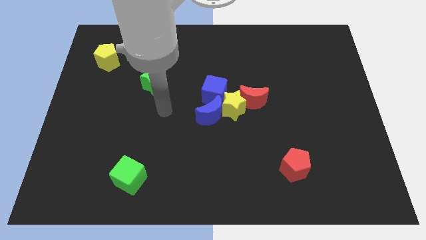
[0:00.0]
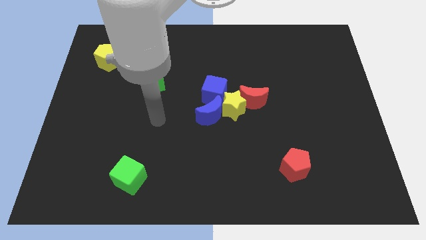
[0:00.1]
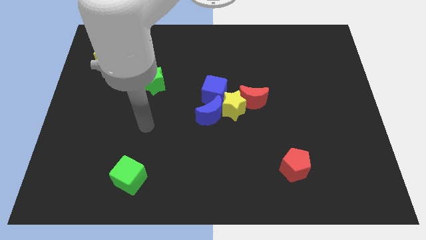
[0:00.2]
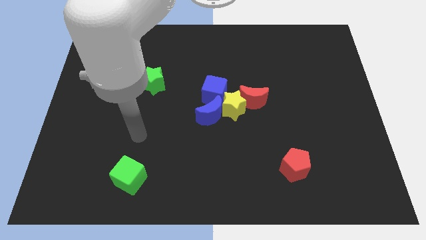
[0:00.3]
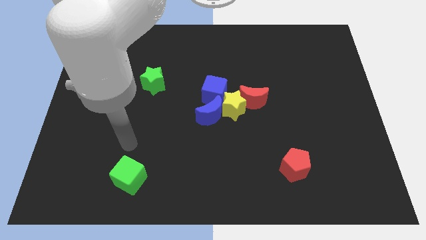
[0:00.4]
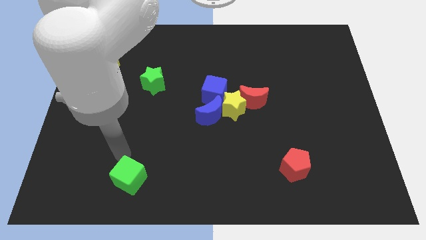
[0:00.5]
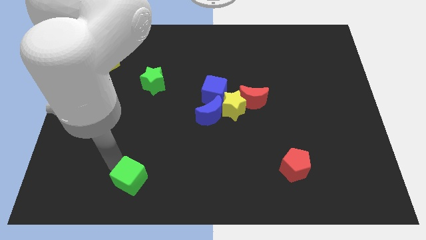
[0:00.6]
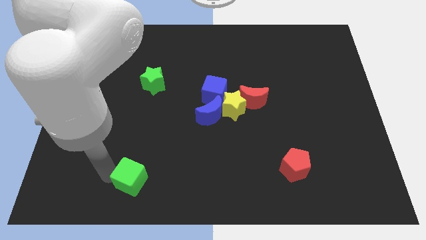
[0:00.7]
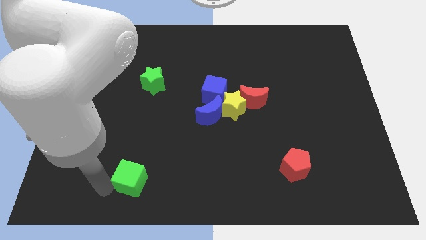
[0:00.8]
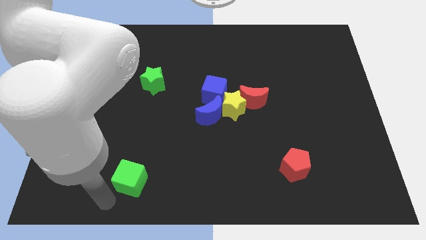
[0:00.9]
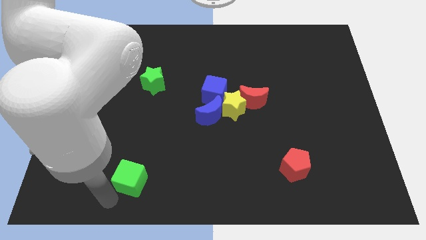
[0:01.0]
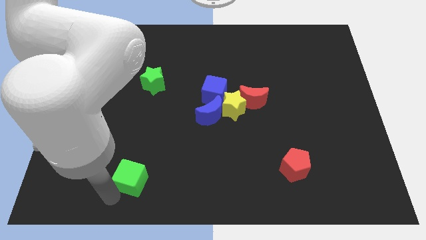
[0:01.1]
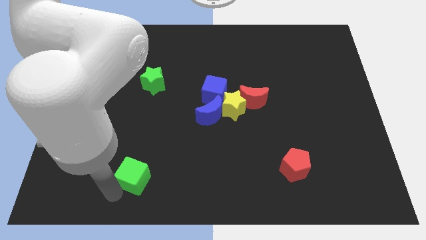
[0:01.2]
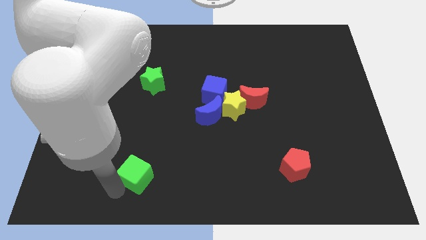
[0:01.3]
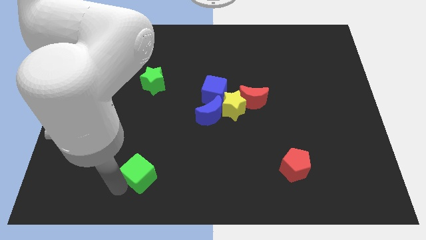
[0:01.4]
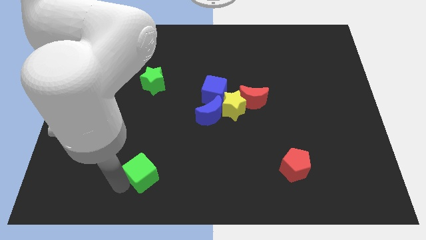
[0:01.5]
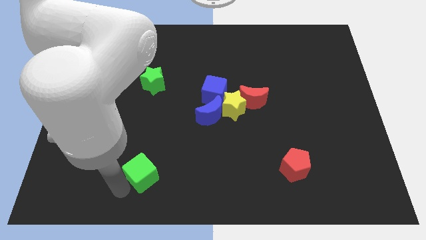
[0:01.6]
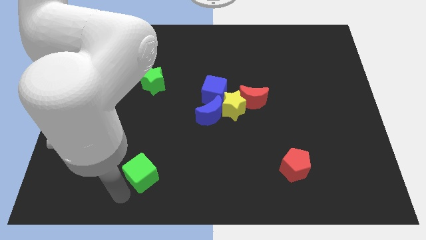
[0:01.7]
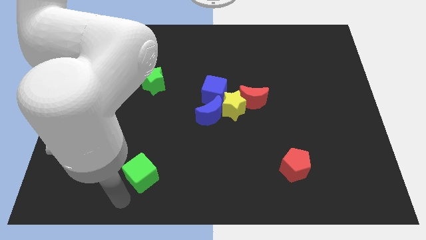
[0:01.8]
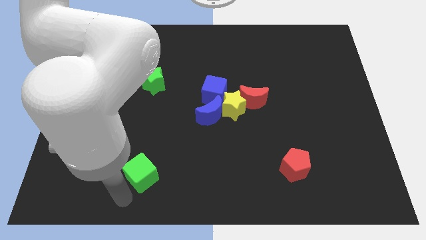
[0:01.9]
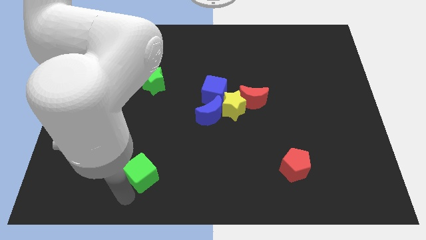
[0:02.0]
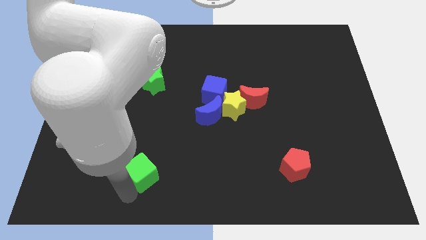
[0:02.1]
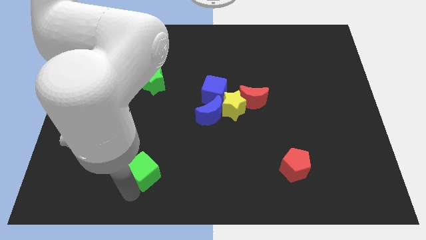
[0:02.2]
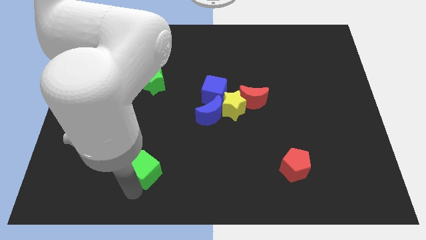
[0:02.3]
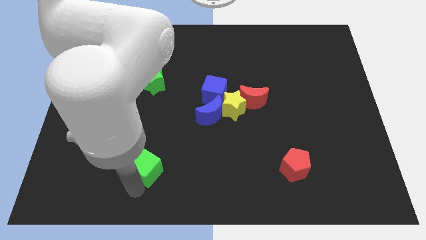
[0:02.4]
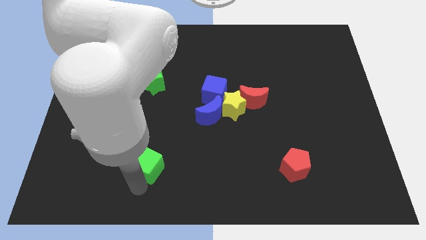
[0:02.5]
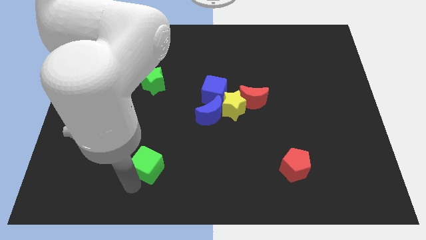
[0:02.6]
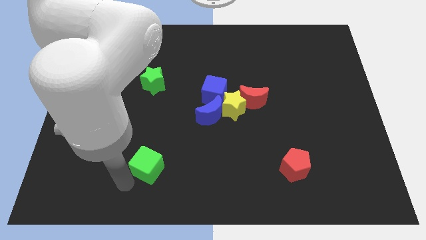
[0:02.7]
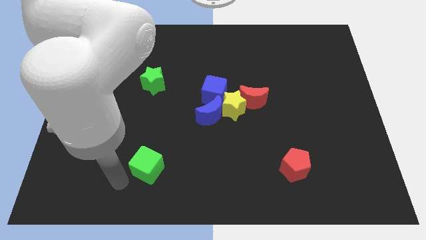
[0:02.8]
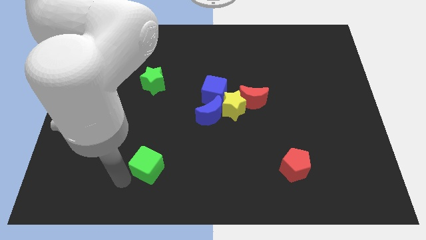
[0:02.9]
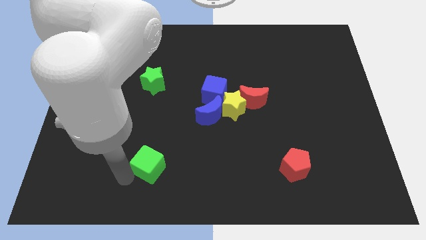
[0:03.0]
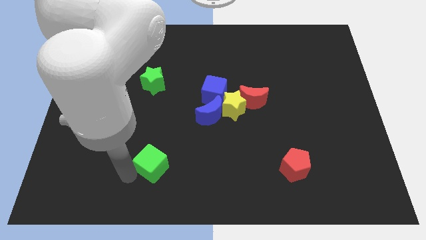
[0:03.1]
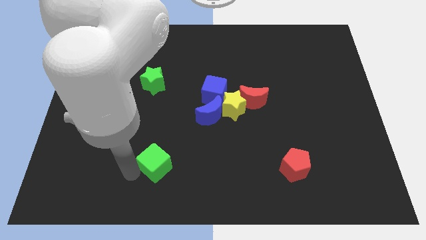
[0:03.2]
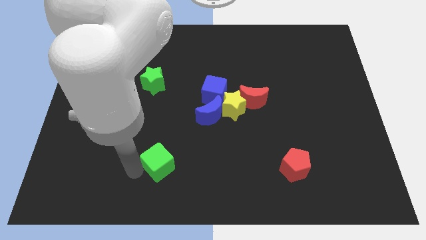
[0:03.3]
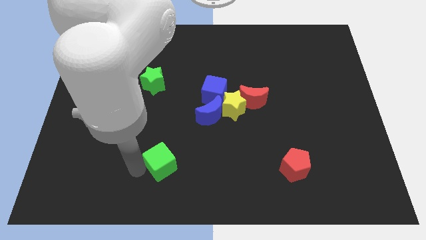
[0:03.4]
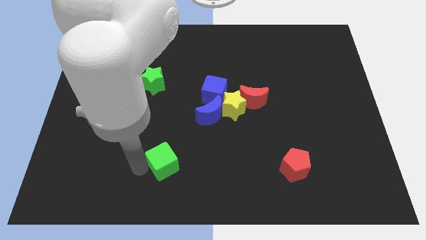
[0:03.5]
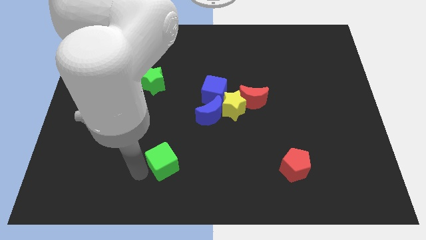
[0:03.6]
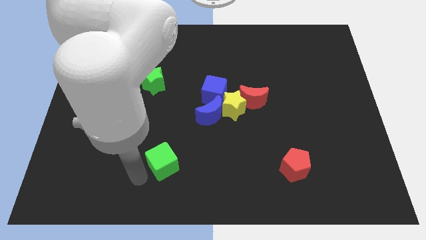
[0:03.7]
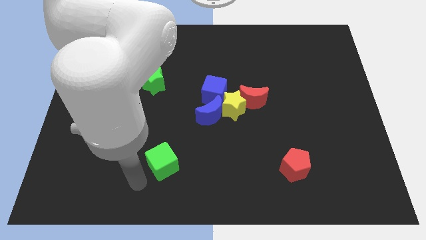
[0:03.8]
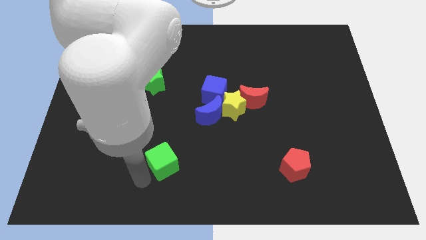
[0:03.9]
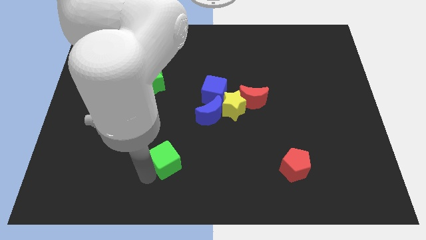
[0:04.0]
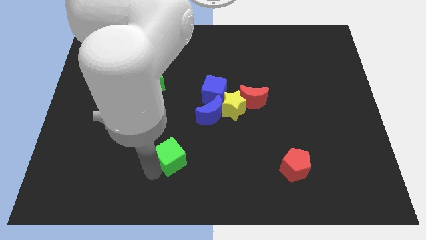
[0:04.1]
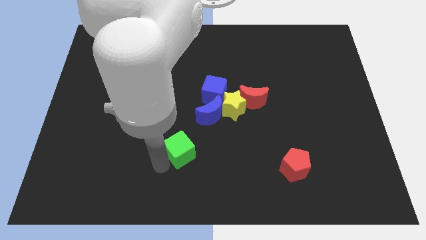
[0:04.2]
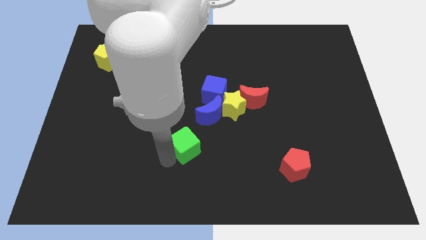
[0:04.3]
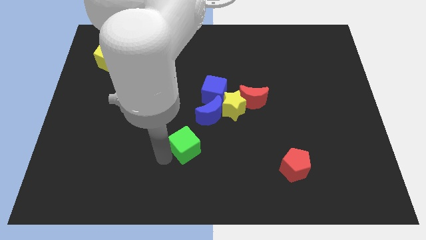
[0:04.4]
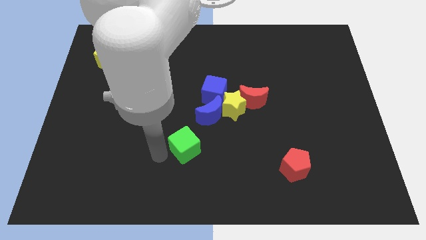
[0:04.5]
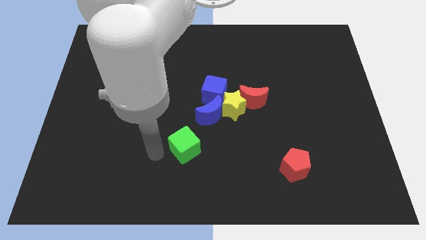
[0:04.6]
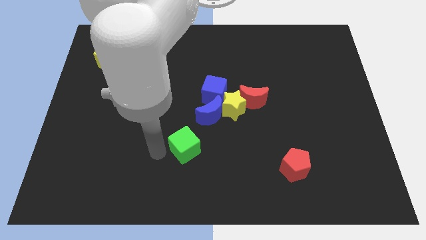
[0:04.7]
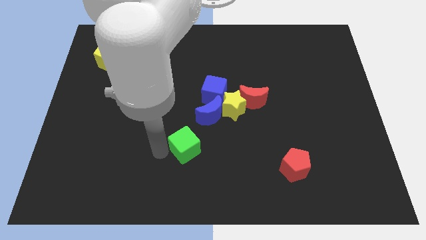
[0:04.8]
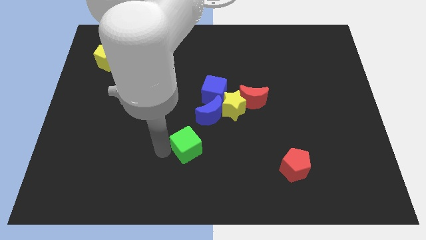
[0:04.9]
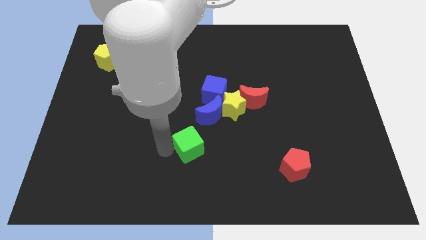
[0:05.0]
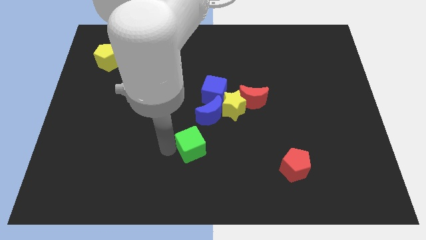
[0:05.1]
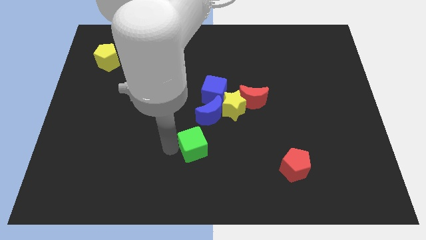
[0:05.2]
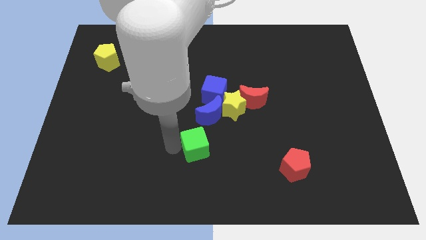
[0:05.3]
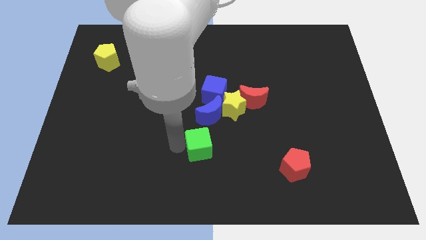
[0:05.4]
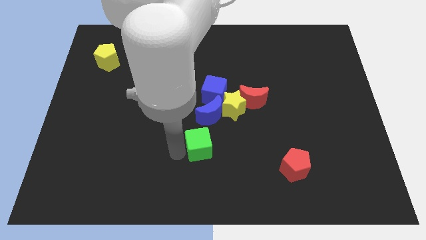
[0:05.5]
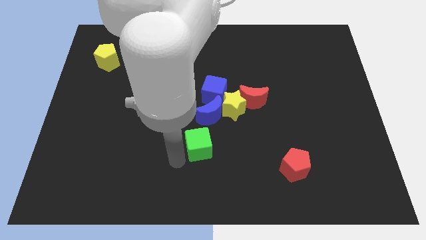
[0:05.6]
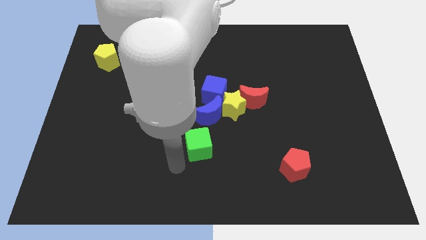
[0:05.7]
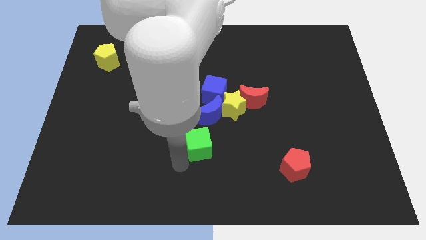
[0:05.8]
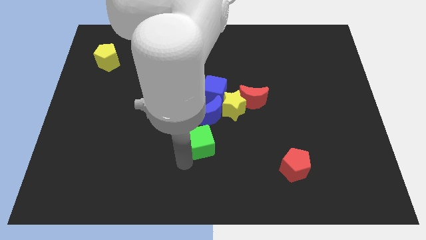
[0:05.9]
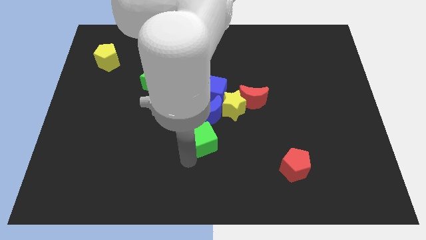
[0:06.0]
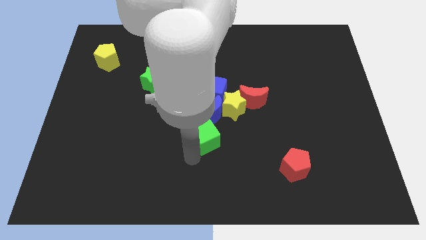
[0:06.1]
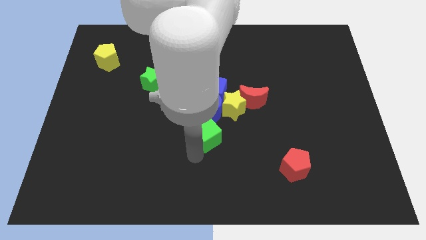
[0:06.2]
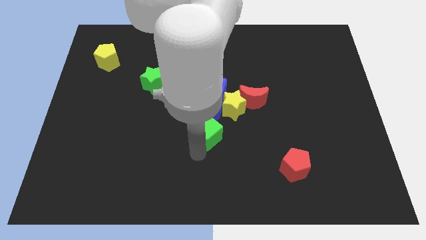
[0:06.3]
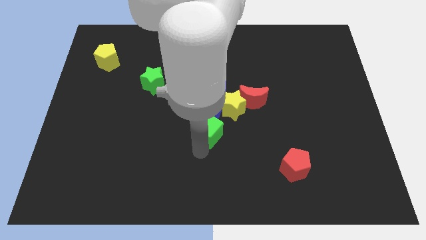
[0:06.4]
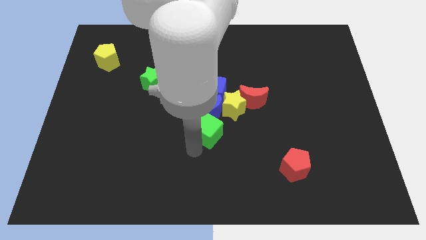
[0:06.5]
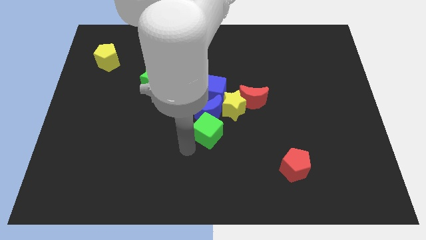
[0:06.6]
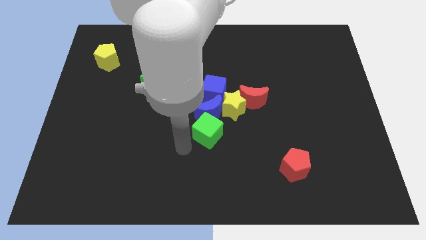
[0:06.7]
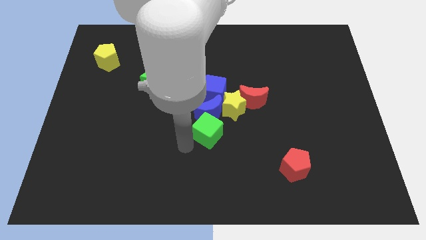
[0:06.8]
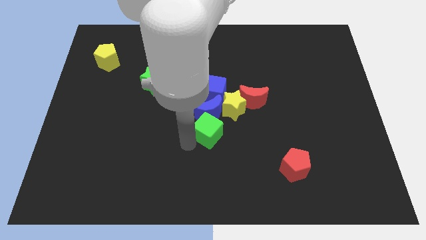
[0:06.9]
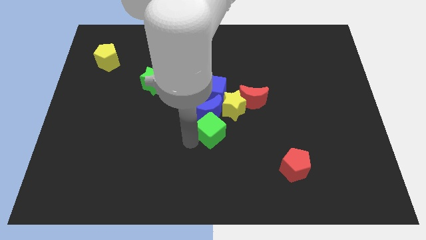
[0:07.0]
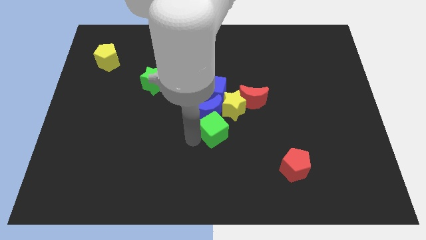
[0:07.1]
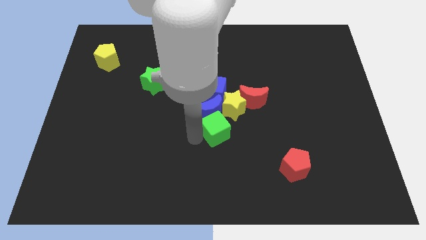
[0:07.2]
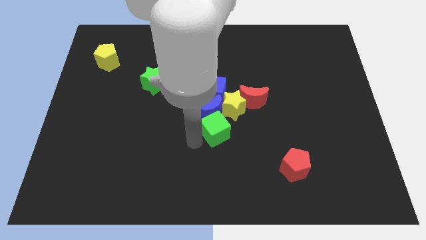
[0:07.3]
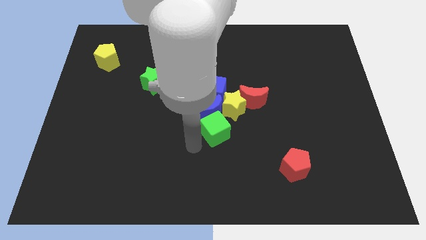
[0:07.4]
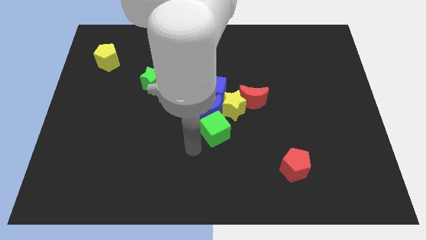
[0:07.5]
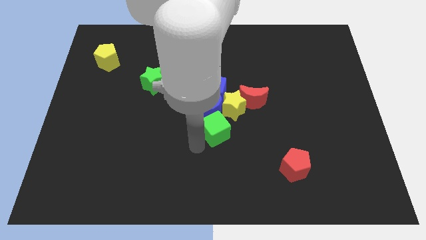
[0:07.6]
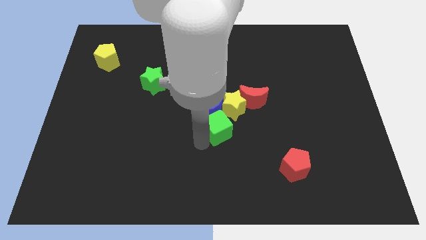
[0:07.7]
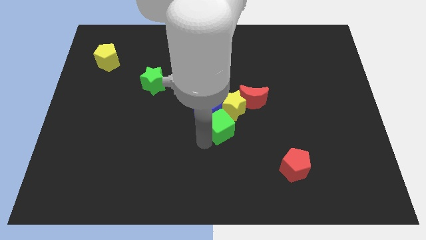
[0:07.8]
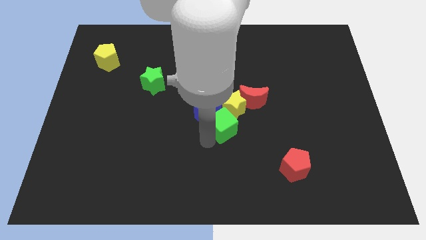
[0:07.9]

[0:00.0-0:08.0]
slide the green cube to the yellow star

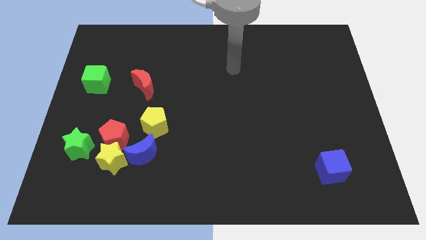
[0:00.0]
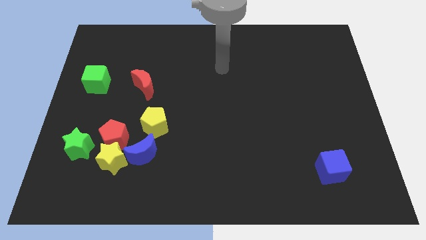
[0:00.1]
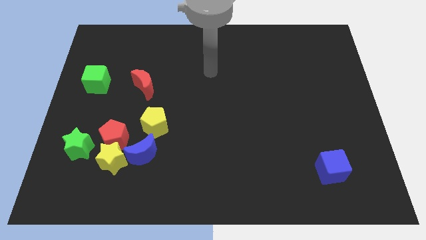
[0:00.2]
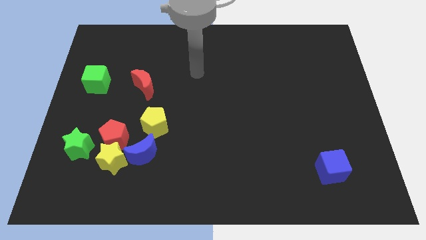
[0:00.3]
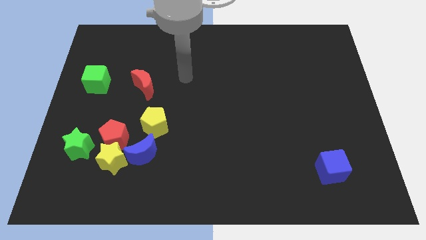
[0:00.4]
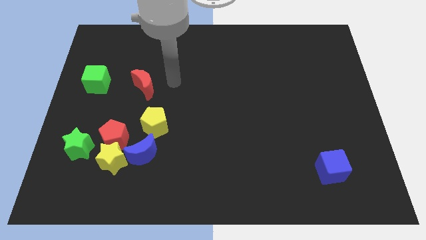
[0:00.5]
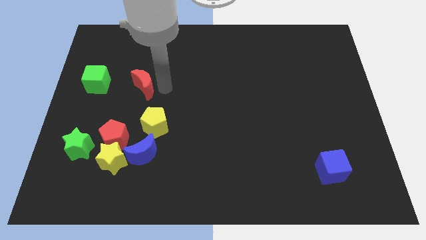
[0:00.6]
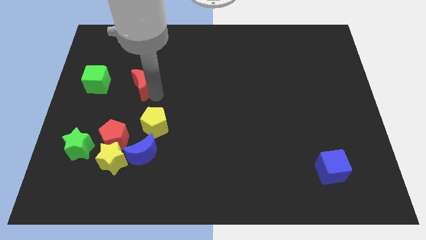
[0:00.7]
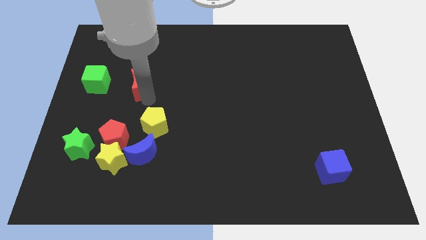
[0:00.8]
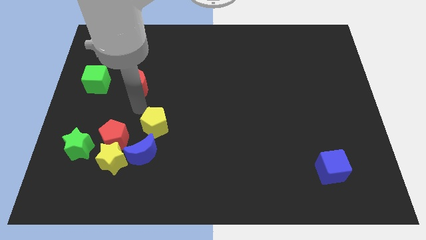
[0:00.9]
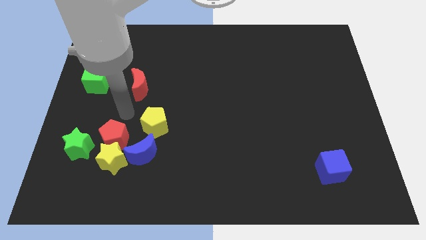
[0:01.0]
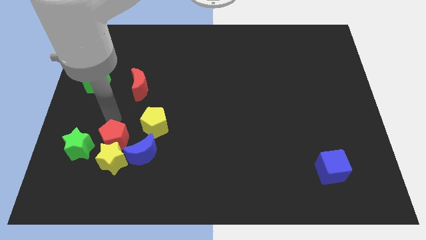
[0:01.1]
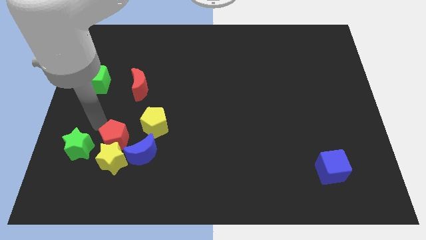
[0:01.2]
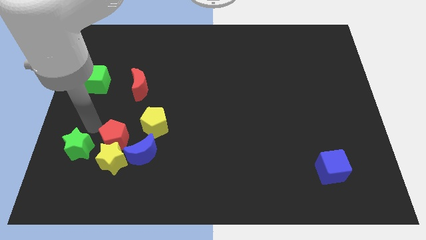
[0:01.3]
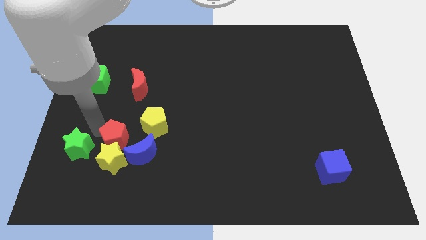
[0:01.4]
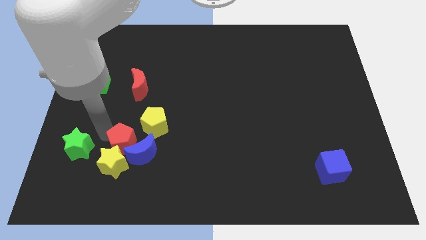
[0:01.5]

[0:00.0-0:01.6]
slide the red pentagon next to the blue moon
